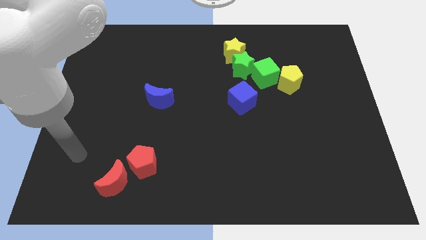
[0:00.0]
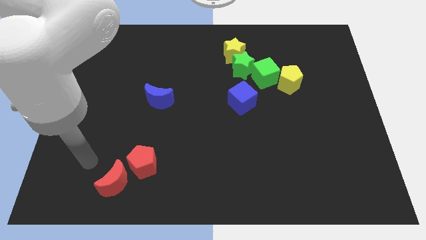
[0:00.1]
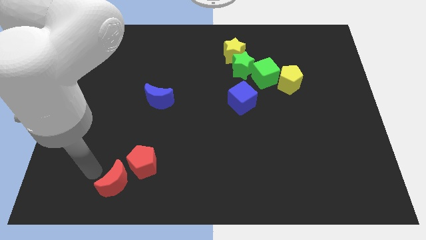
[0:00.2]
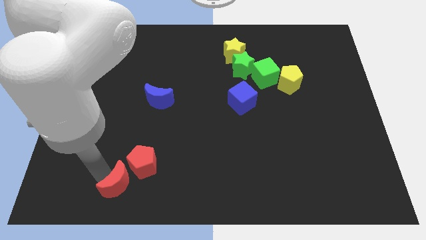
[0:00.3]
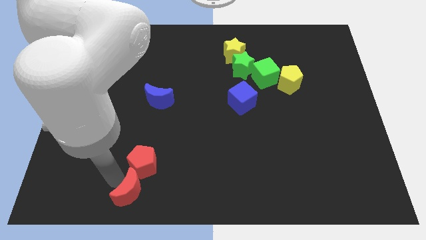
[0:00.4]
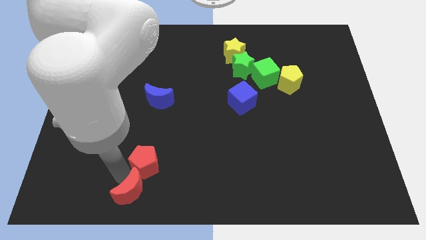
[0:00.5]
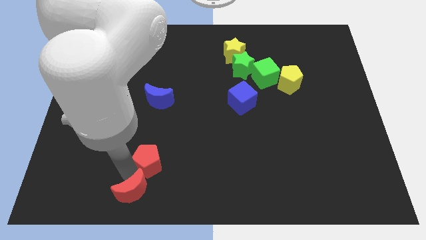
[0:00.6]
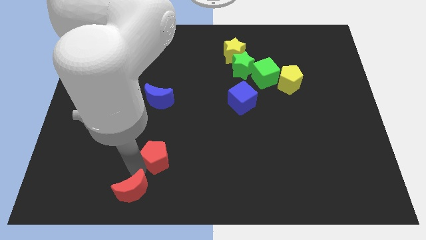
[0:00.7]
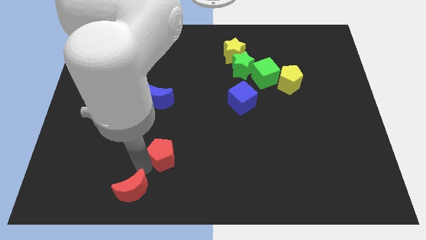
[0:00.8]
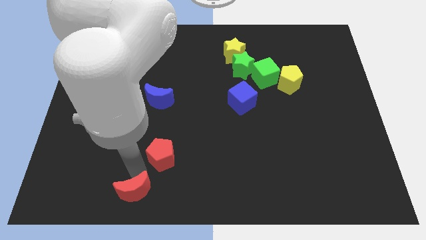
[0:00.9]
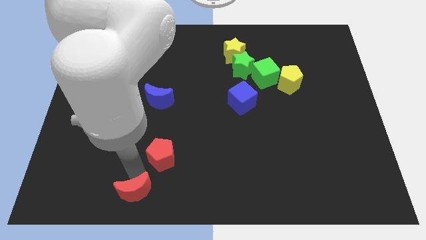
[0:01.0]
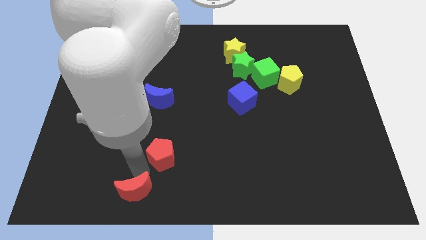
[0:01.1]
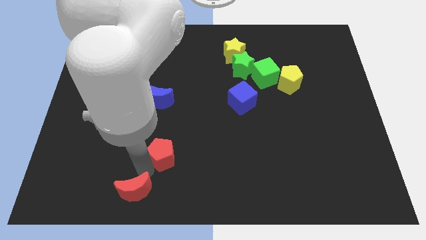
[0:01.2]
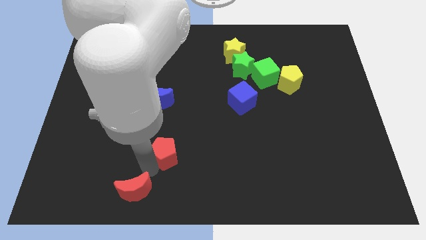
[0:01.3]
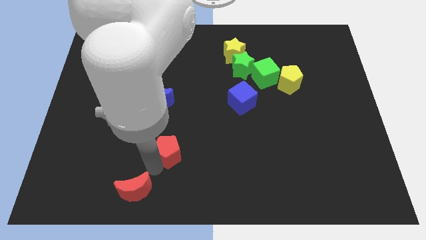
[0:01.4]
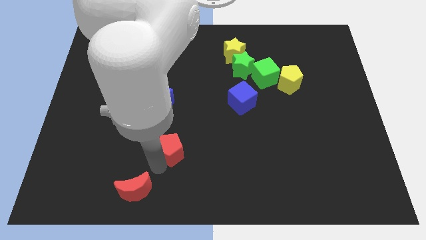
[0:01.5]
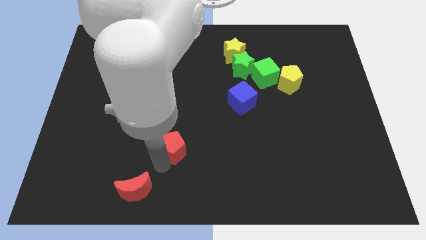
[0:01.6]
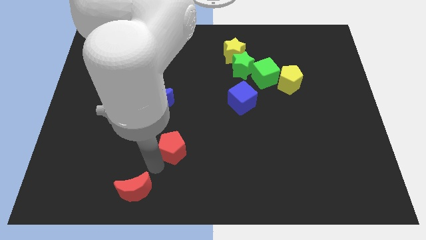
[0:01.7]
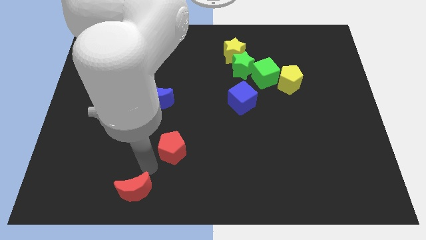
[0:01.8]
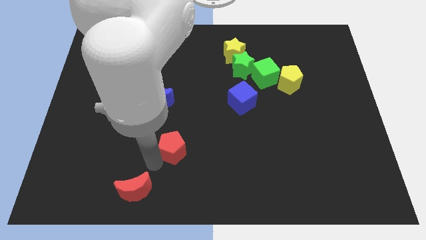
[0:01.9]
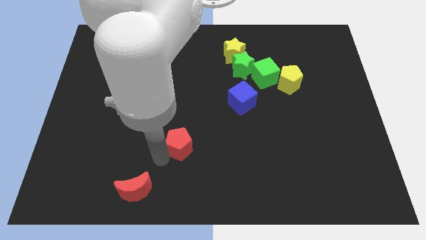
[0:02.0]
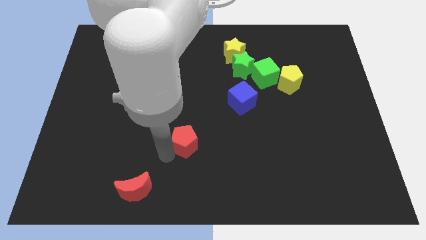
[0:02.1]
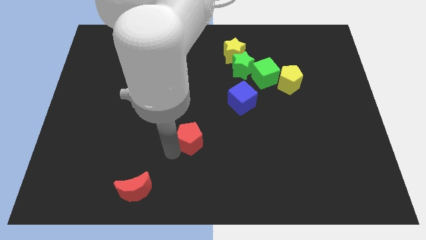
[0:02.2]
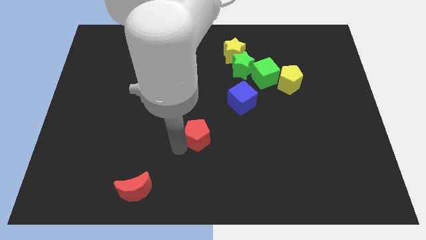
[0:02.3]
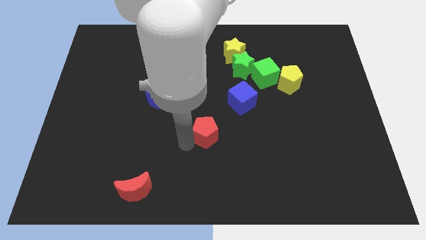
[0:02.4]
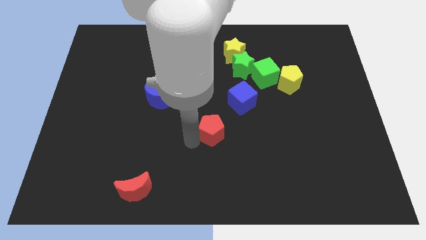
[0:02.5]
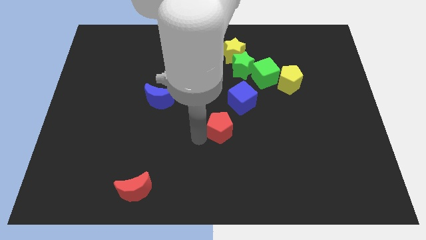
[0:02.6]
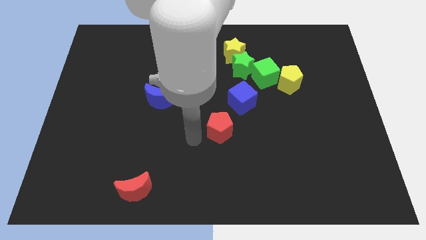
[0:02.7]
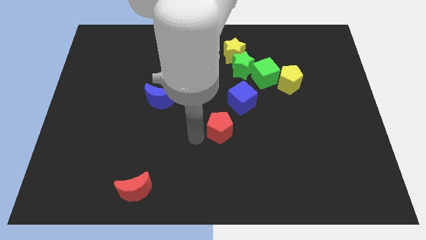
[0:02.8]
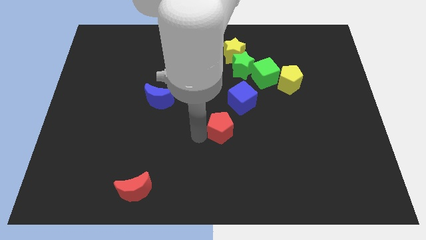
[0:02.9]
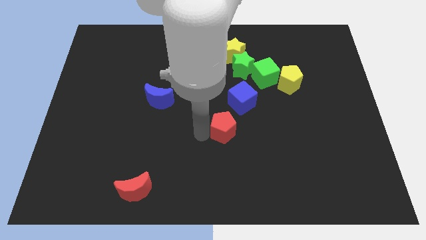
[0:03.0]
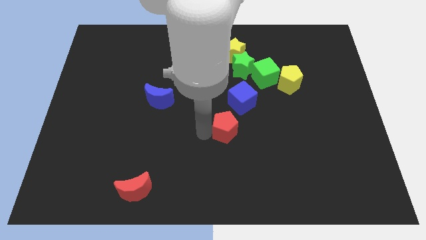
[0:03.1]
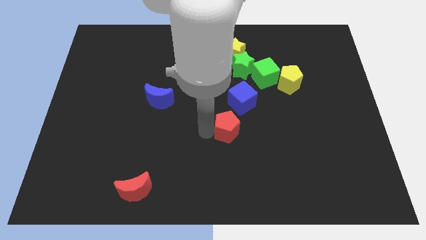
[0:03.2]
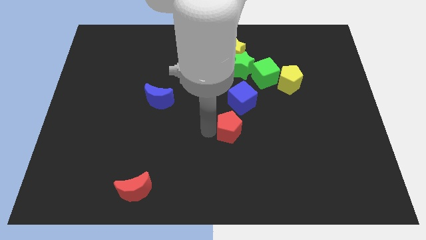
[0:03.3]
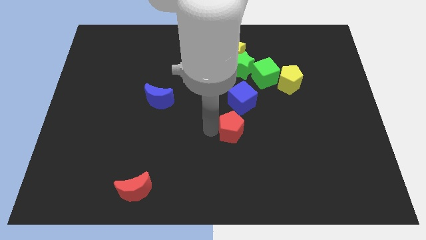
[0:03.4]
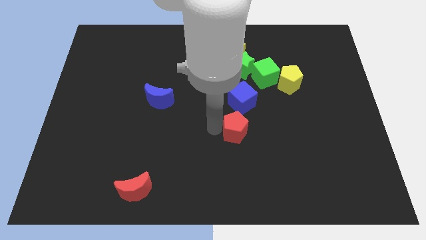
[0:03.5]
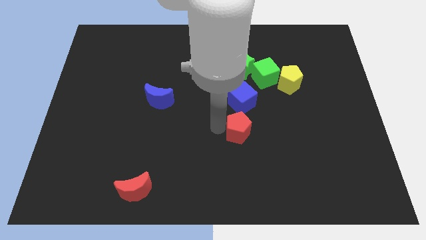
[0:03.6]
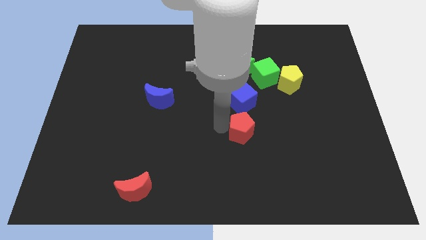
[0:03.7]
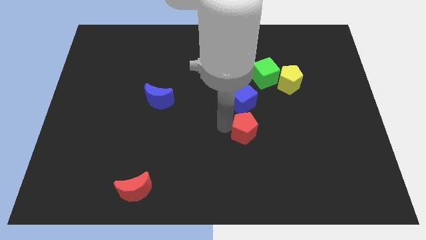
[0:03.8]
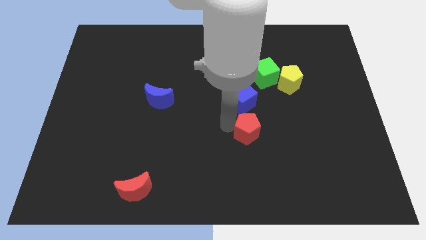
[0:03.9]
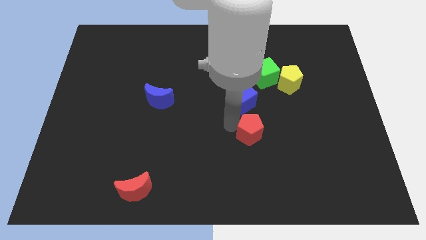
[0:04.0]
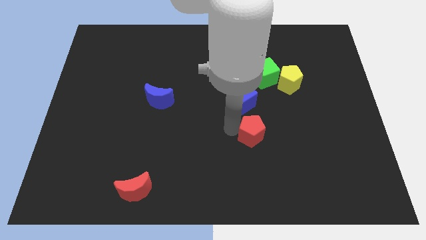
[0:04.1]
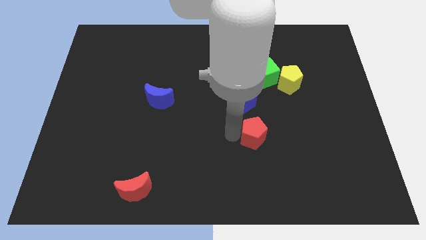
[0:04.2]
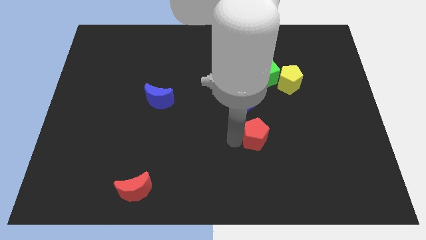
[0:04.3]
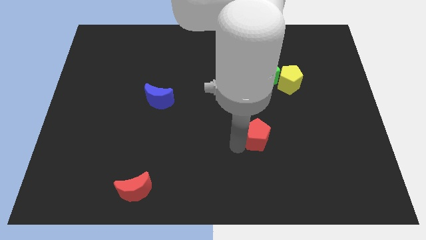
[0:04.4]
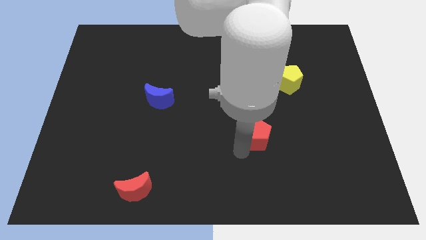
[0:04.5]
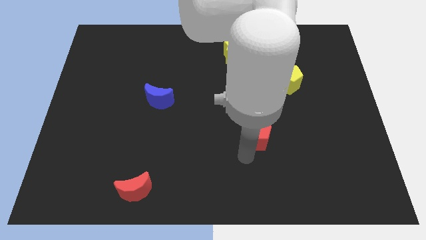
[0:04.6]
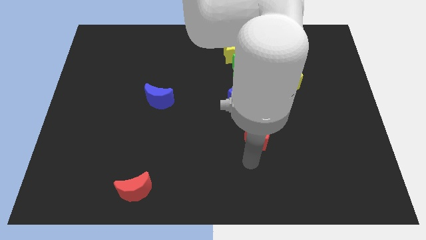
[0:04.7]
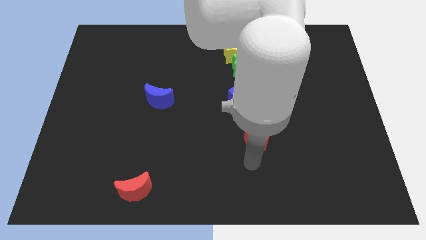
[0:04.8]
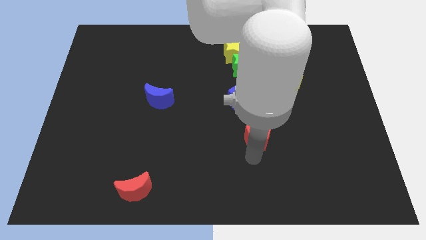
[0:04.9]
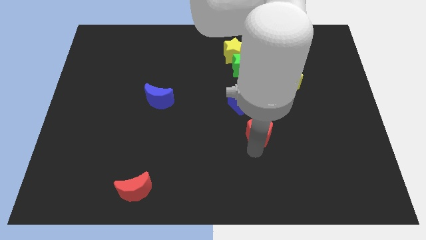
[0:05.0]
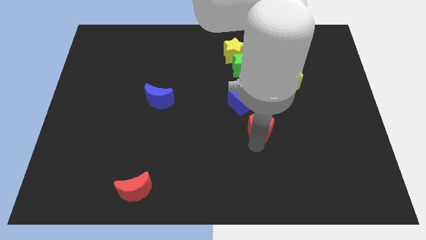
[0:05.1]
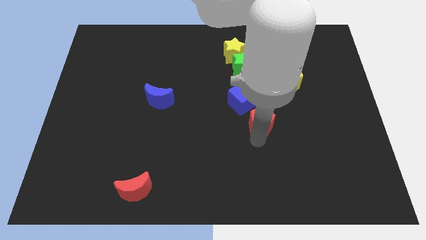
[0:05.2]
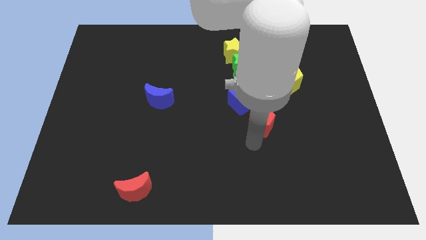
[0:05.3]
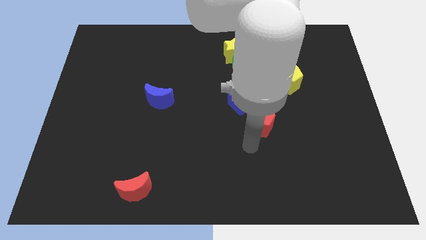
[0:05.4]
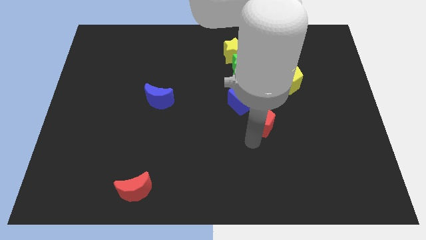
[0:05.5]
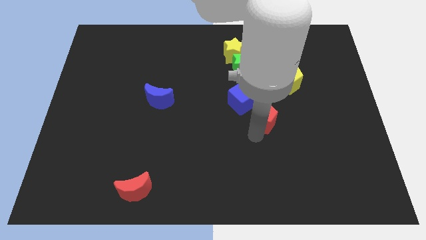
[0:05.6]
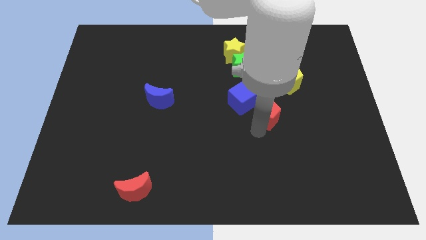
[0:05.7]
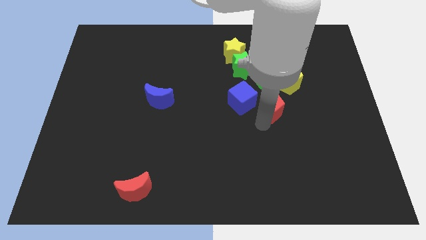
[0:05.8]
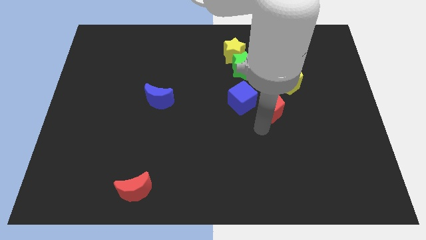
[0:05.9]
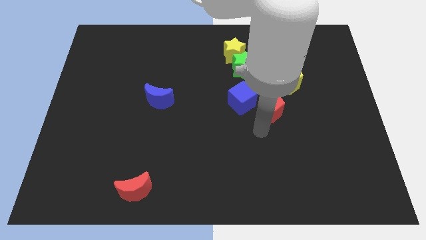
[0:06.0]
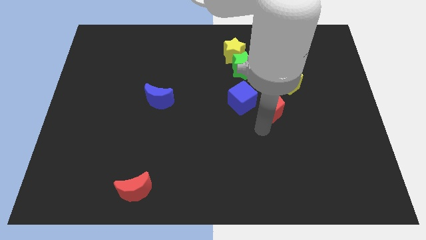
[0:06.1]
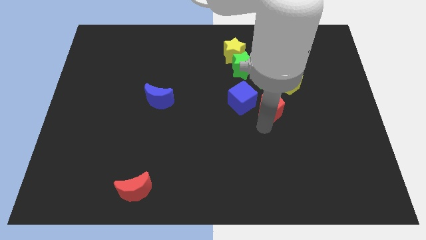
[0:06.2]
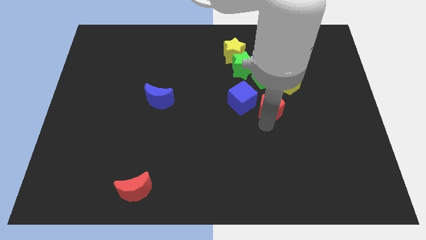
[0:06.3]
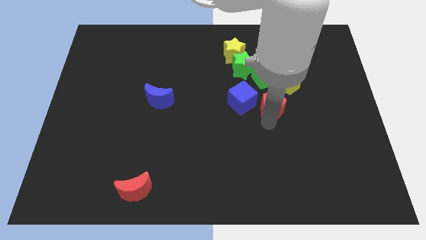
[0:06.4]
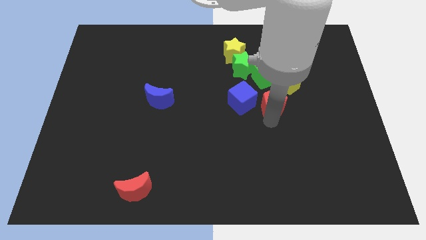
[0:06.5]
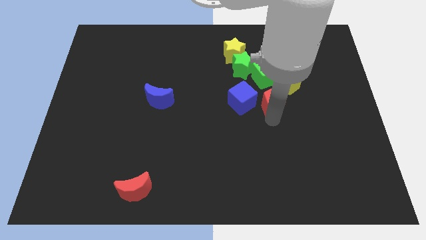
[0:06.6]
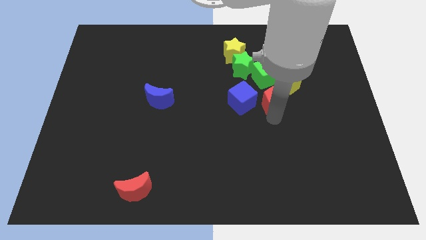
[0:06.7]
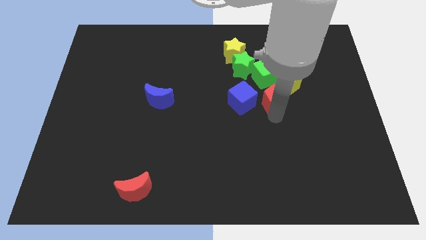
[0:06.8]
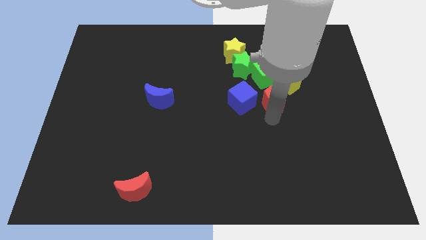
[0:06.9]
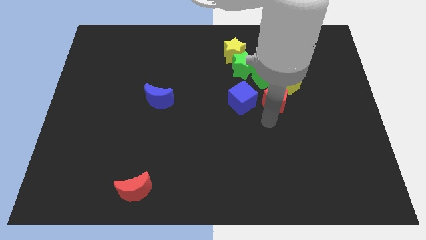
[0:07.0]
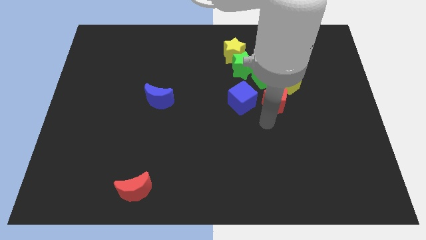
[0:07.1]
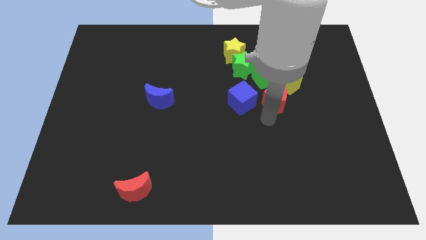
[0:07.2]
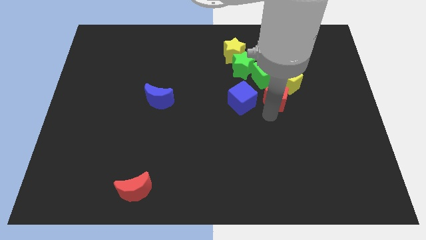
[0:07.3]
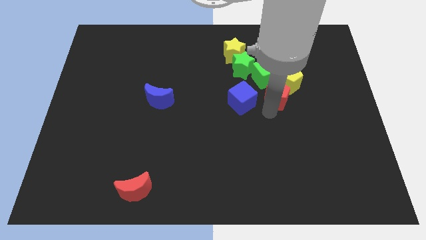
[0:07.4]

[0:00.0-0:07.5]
slide the red pentagon to the yellow pentagon
